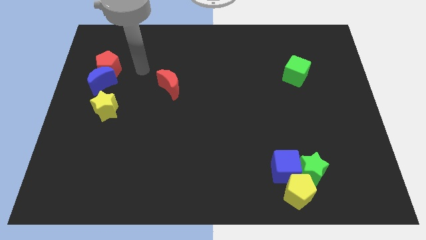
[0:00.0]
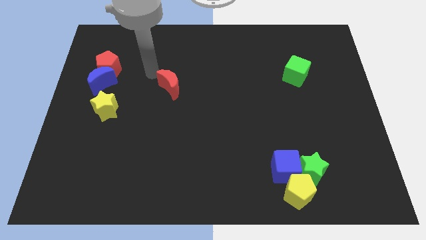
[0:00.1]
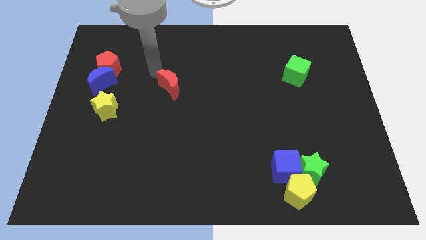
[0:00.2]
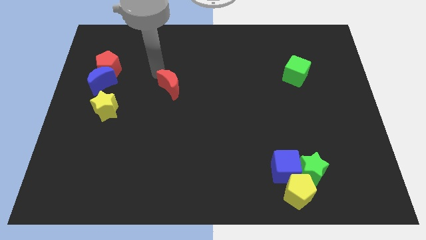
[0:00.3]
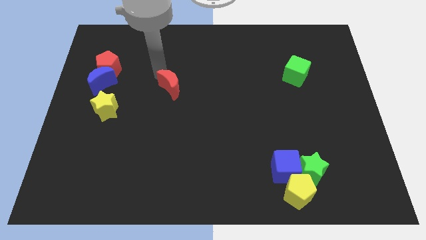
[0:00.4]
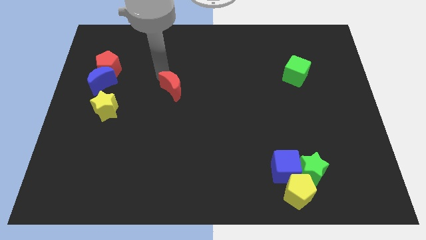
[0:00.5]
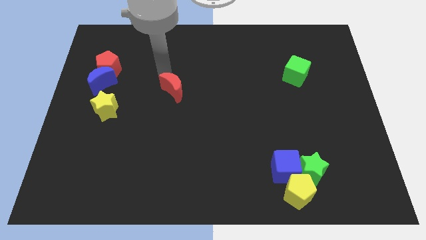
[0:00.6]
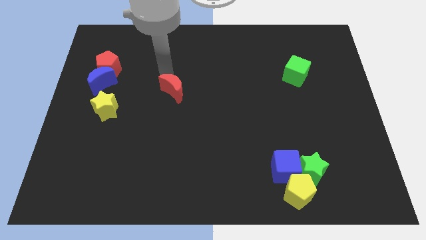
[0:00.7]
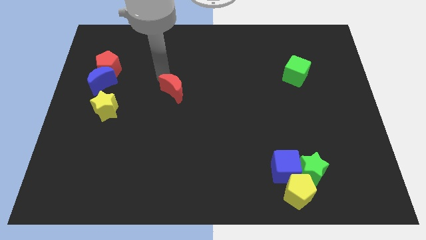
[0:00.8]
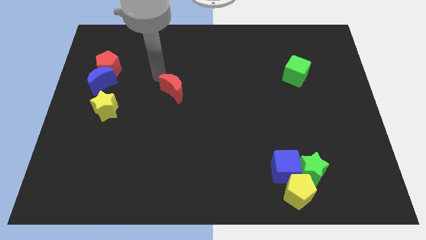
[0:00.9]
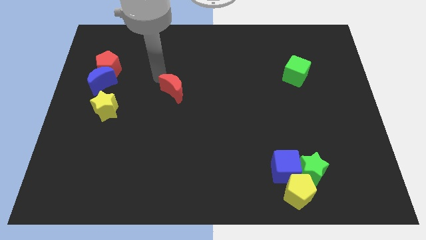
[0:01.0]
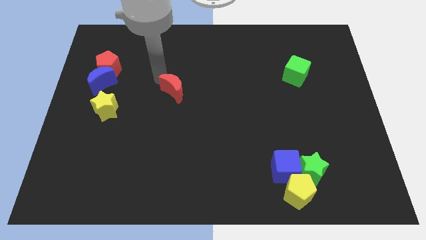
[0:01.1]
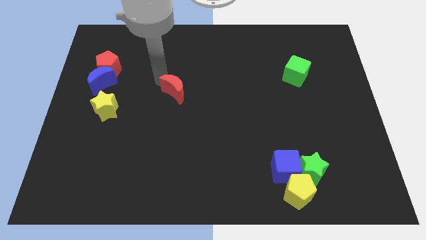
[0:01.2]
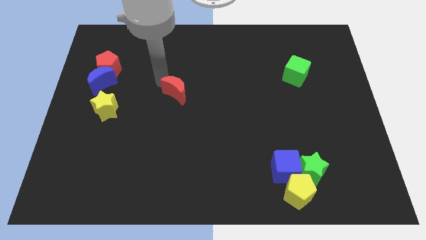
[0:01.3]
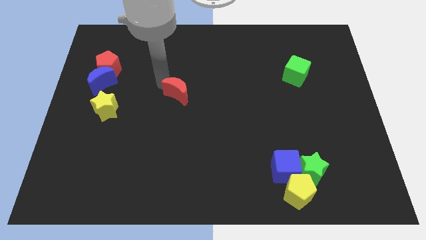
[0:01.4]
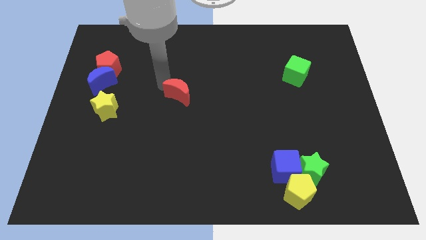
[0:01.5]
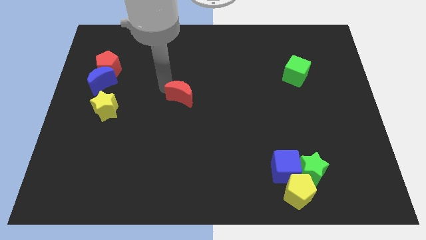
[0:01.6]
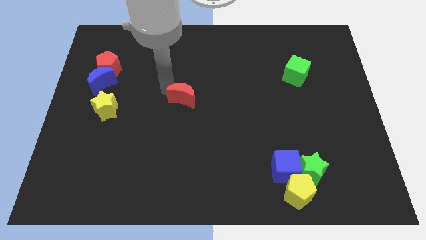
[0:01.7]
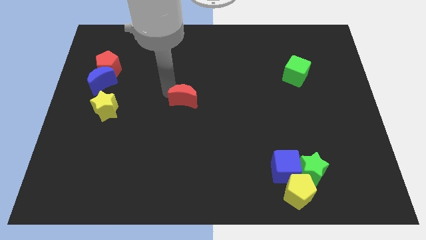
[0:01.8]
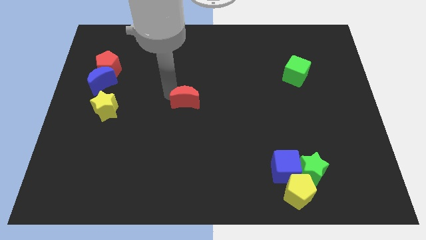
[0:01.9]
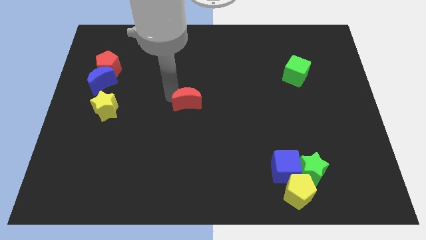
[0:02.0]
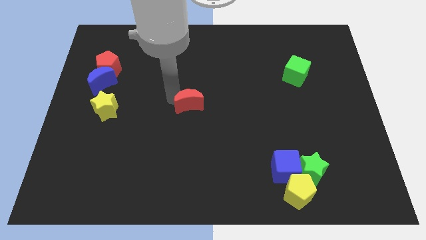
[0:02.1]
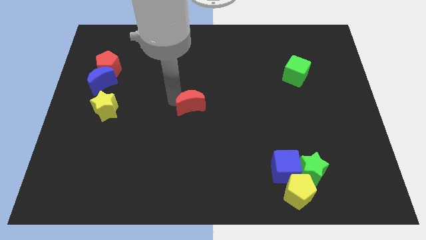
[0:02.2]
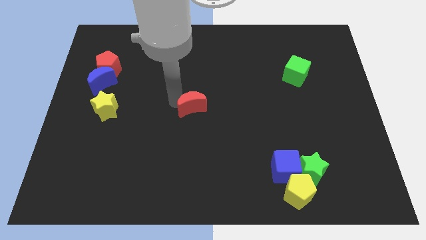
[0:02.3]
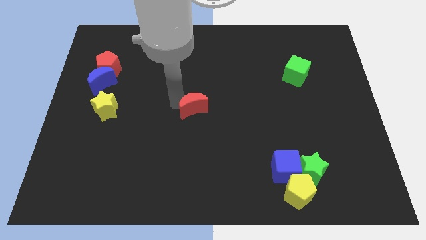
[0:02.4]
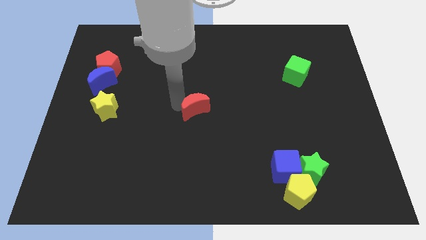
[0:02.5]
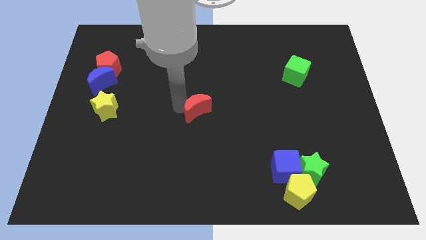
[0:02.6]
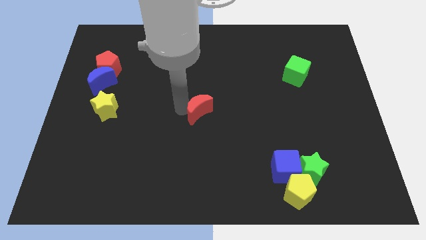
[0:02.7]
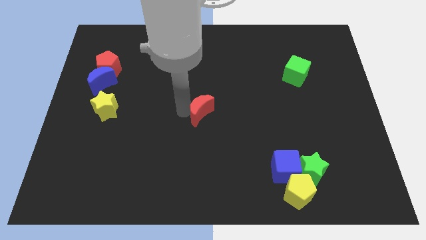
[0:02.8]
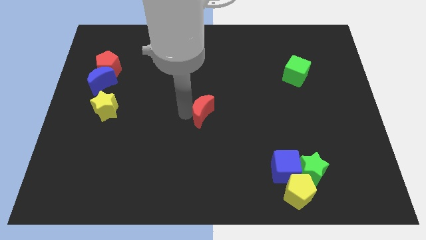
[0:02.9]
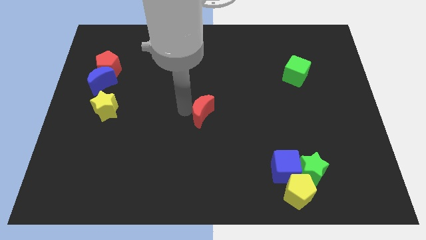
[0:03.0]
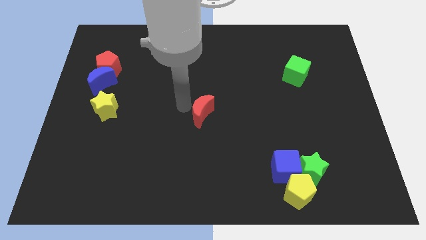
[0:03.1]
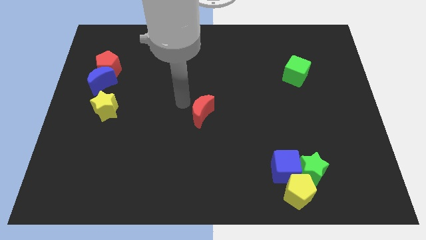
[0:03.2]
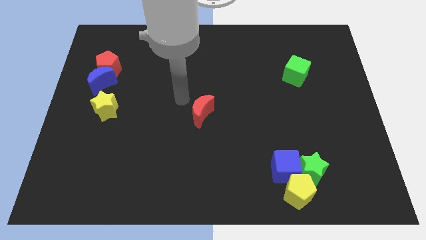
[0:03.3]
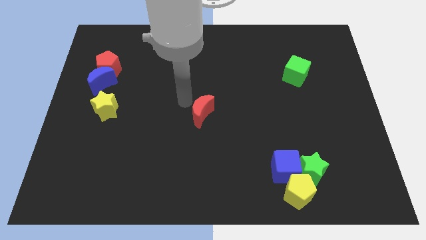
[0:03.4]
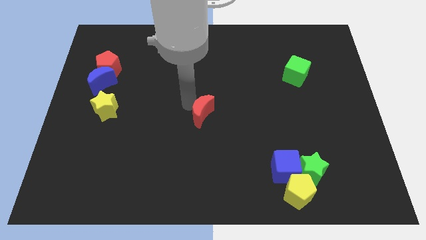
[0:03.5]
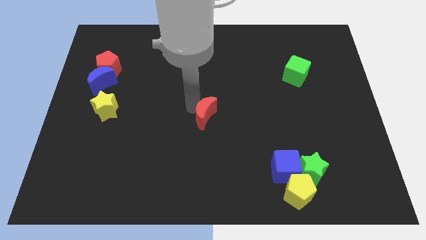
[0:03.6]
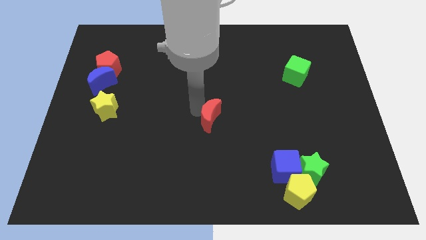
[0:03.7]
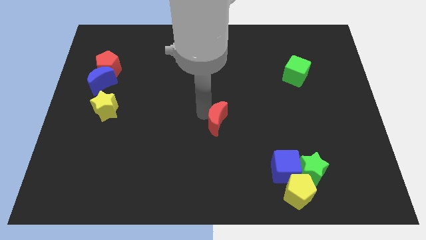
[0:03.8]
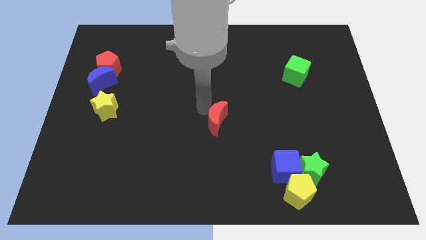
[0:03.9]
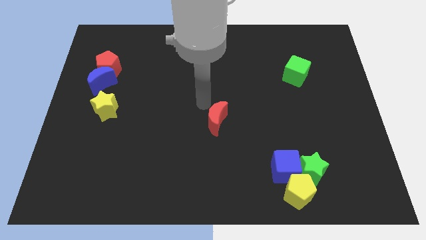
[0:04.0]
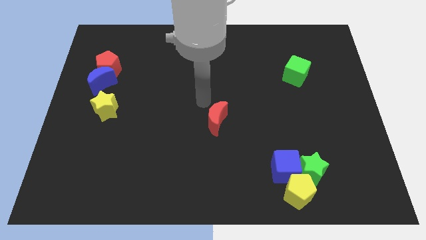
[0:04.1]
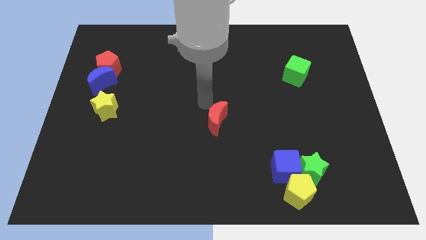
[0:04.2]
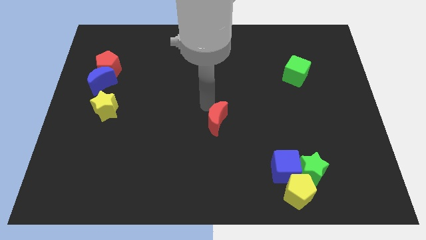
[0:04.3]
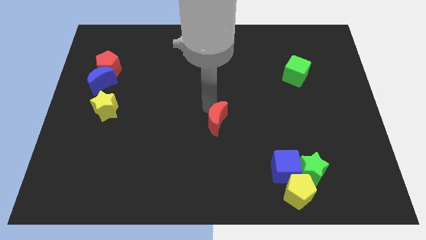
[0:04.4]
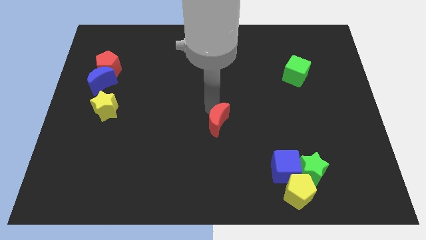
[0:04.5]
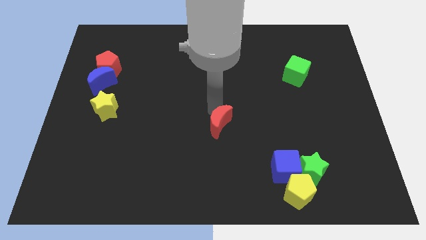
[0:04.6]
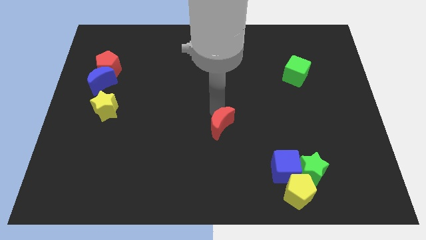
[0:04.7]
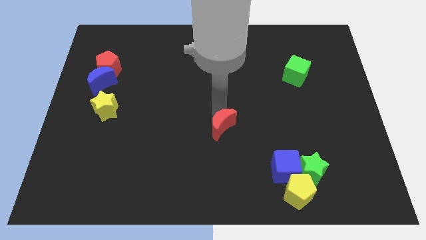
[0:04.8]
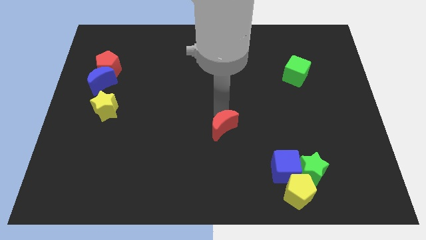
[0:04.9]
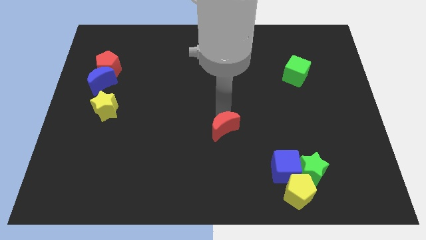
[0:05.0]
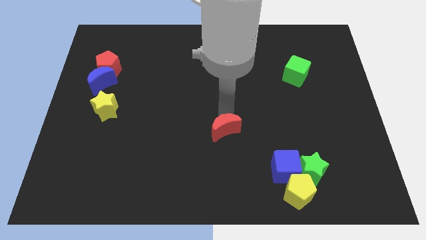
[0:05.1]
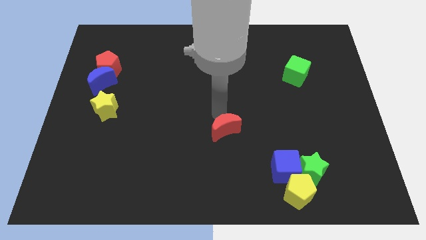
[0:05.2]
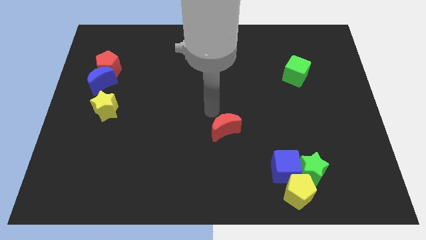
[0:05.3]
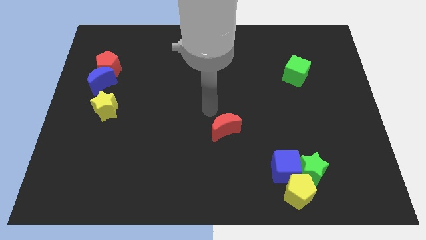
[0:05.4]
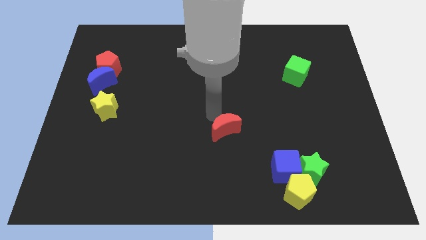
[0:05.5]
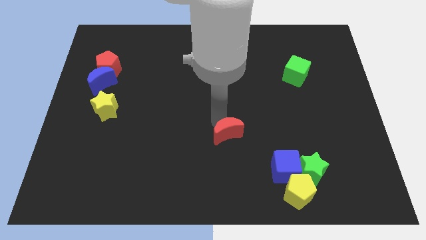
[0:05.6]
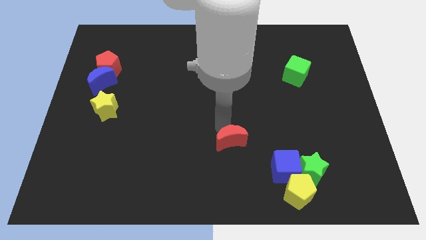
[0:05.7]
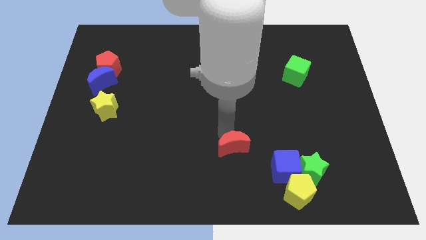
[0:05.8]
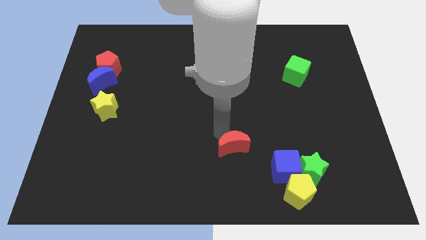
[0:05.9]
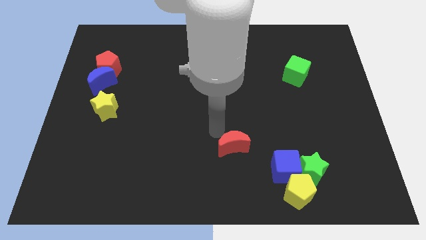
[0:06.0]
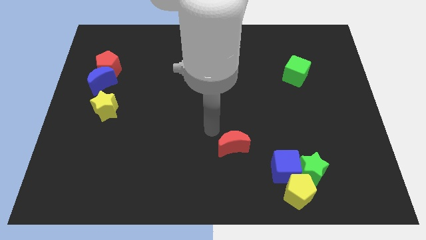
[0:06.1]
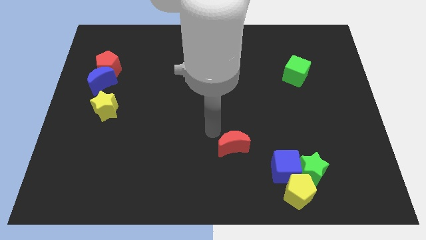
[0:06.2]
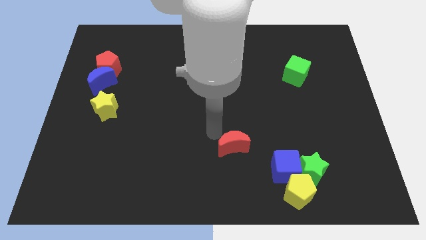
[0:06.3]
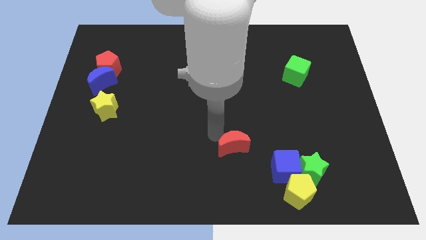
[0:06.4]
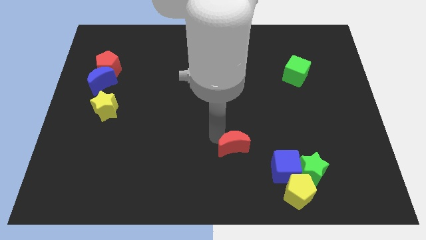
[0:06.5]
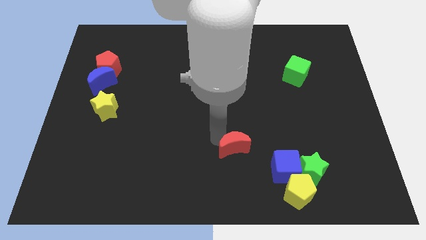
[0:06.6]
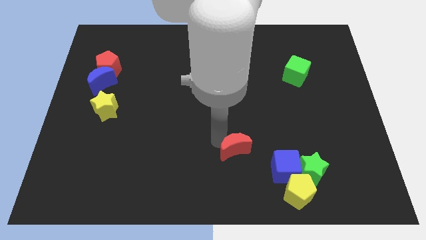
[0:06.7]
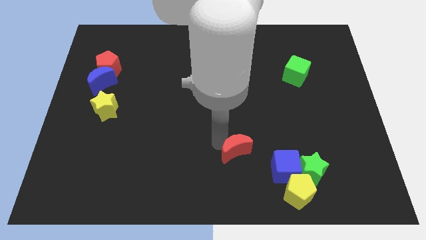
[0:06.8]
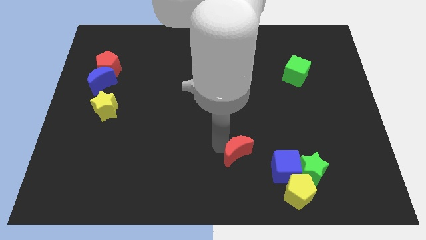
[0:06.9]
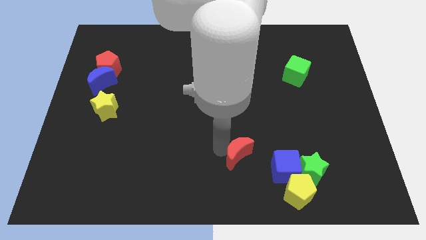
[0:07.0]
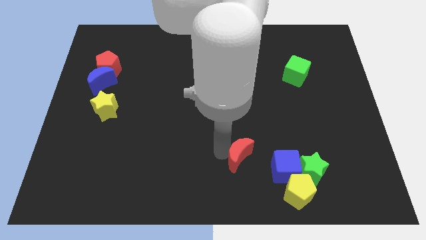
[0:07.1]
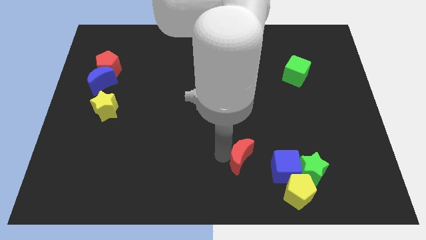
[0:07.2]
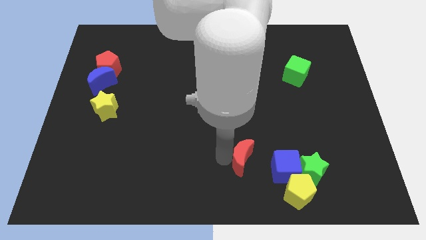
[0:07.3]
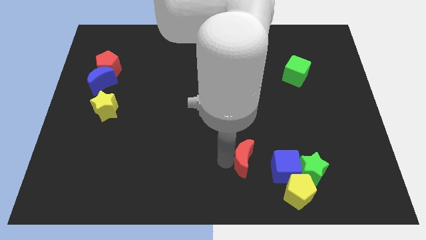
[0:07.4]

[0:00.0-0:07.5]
put the red moon to the top left of the yellow pentagon
